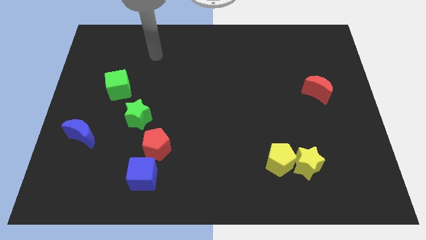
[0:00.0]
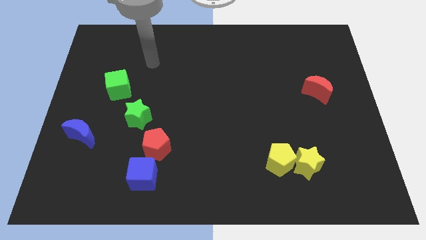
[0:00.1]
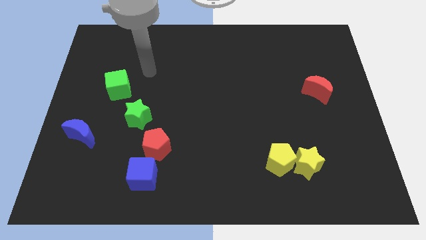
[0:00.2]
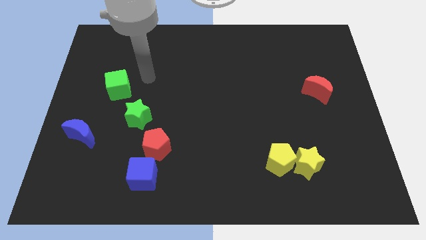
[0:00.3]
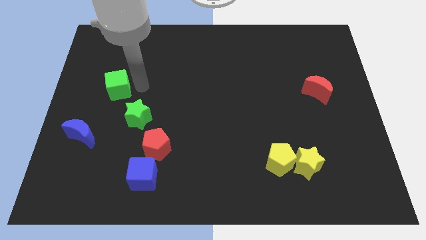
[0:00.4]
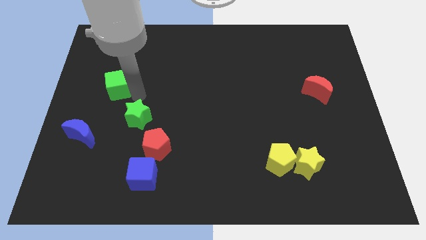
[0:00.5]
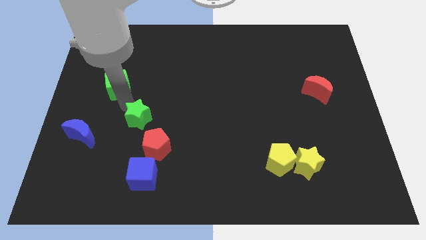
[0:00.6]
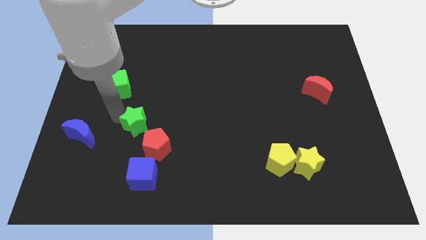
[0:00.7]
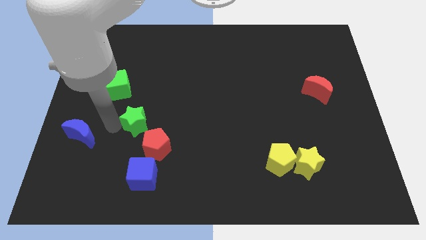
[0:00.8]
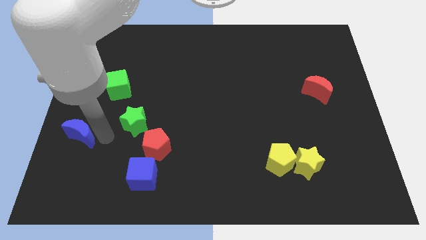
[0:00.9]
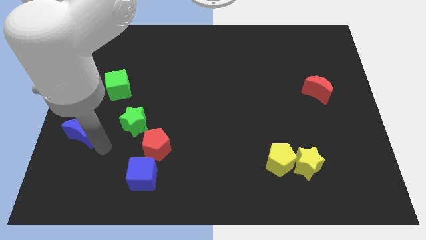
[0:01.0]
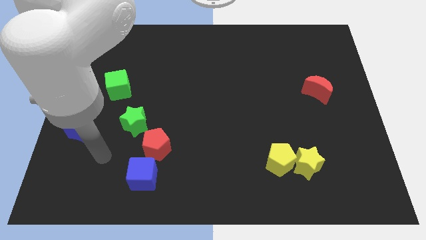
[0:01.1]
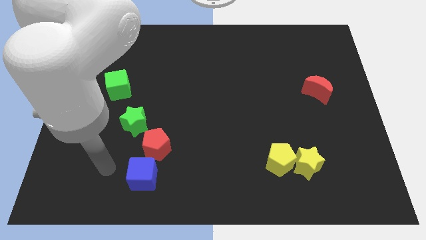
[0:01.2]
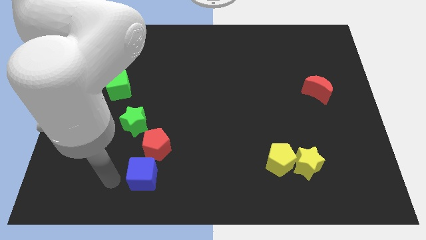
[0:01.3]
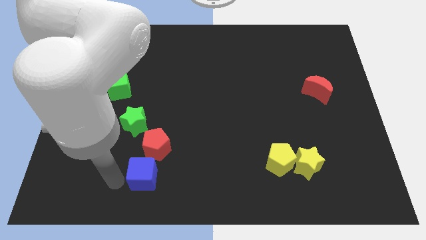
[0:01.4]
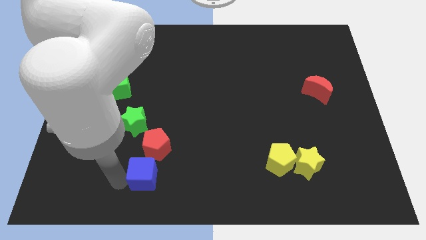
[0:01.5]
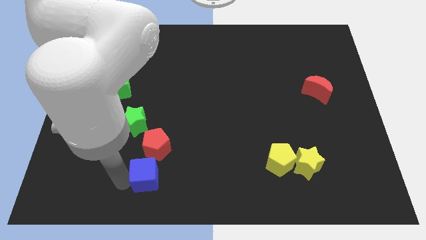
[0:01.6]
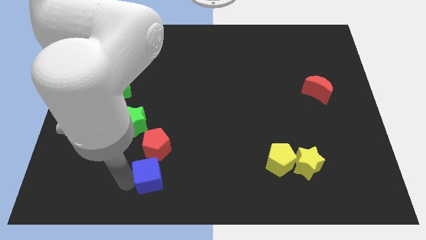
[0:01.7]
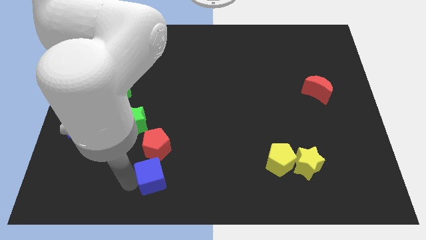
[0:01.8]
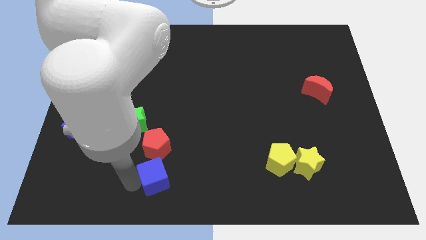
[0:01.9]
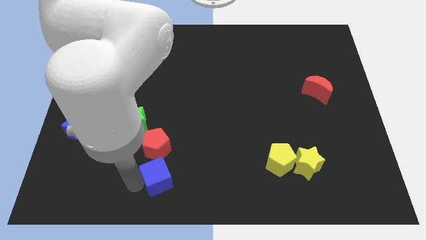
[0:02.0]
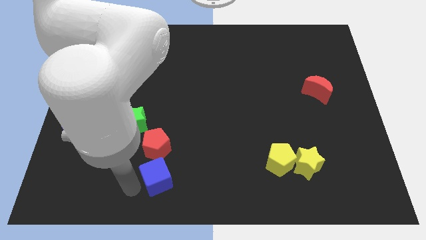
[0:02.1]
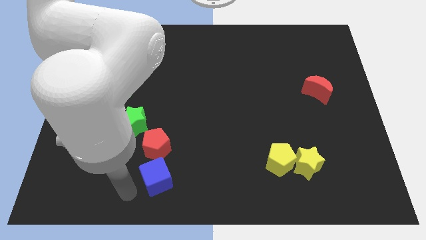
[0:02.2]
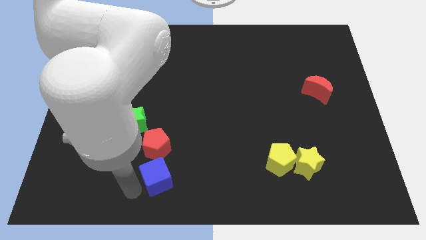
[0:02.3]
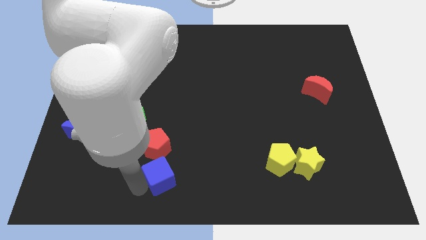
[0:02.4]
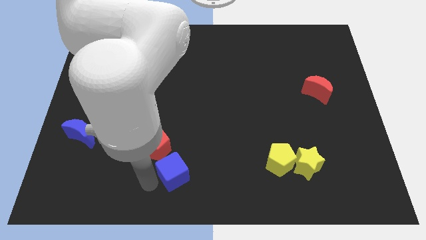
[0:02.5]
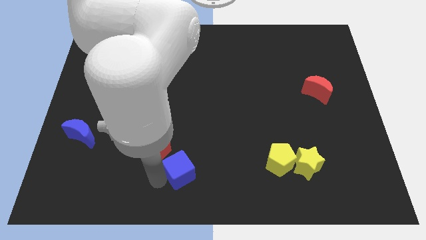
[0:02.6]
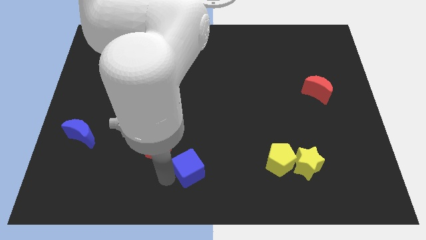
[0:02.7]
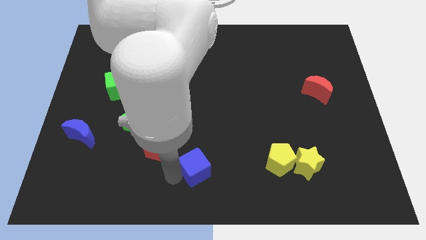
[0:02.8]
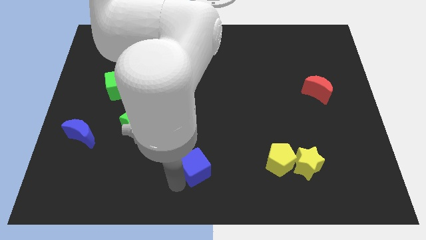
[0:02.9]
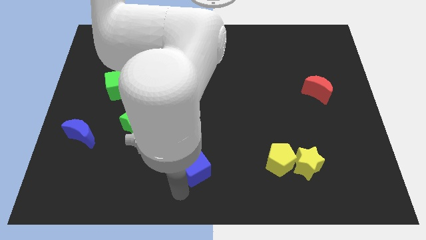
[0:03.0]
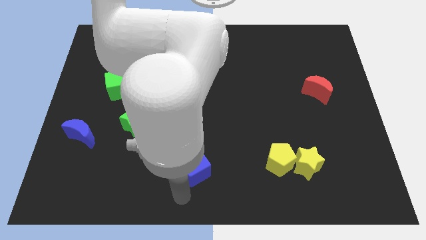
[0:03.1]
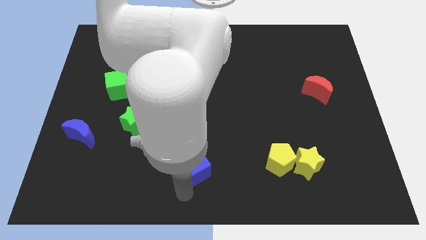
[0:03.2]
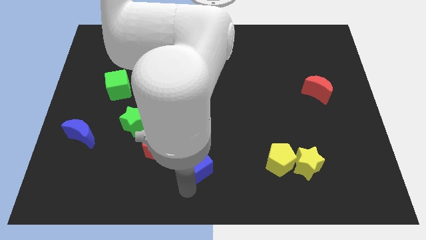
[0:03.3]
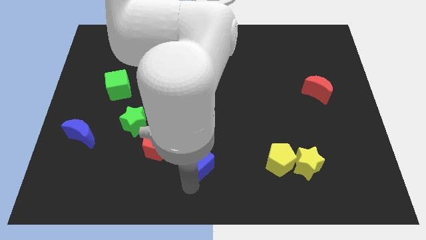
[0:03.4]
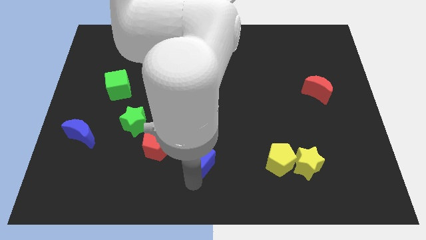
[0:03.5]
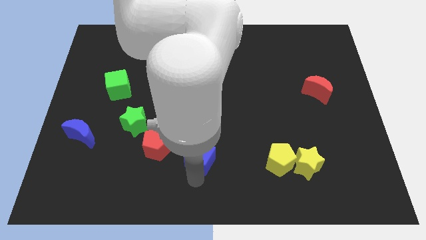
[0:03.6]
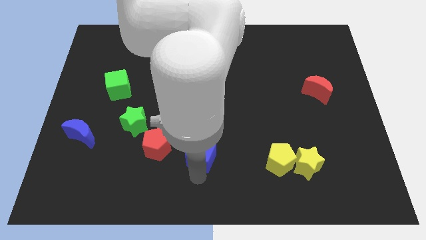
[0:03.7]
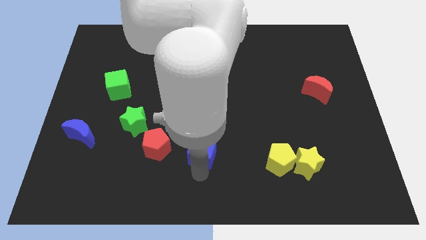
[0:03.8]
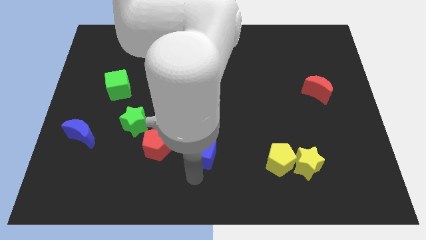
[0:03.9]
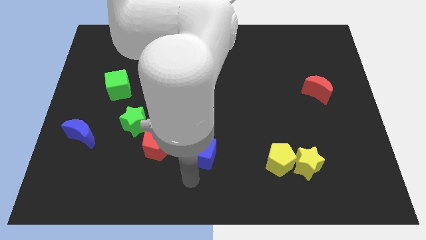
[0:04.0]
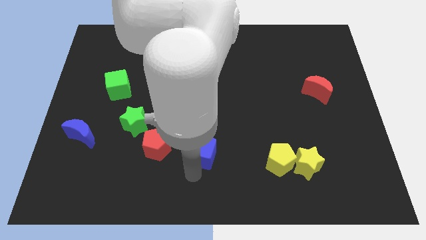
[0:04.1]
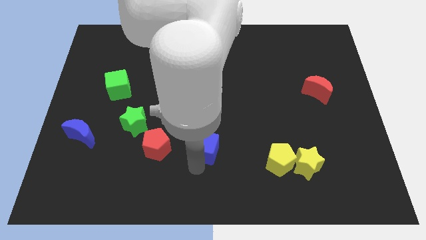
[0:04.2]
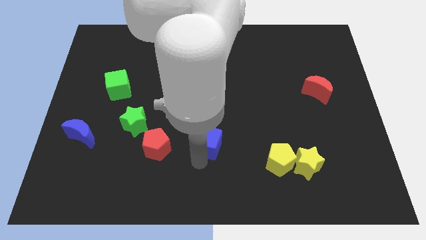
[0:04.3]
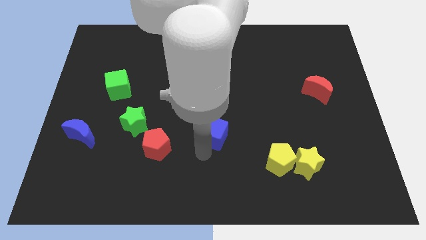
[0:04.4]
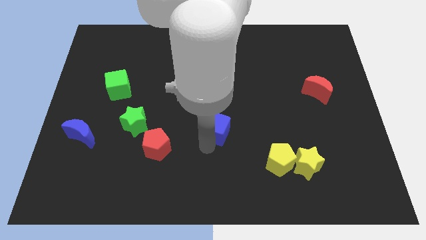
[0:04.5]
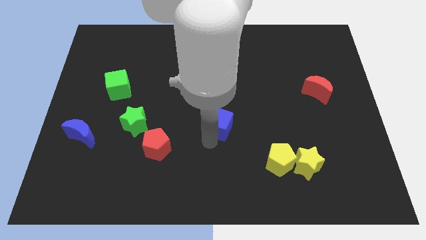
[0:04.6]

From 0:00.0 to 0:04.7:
push the blue cube upwards and to the right

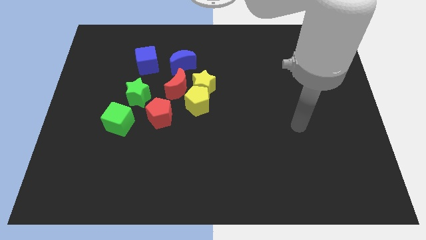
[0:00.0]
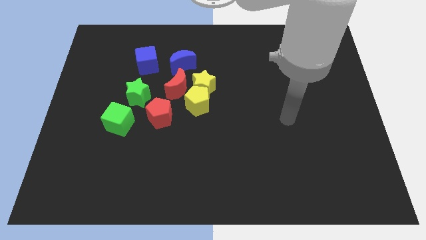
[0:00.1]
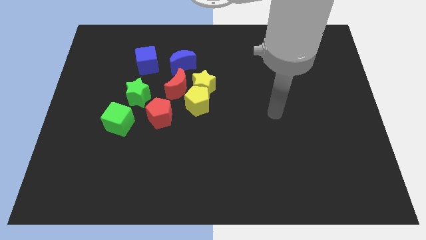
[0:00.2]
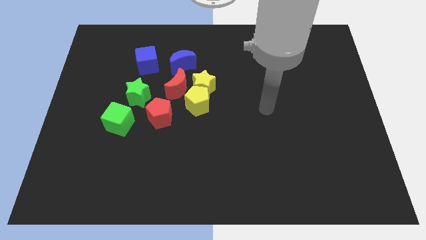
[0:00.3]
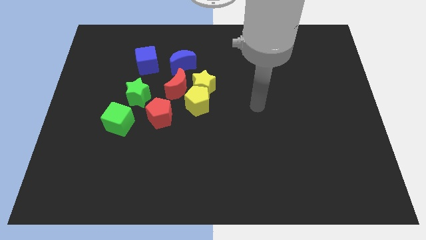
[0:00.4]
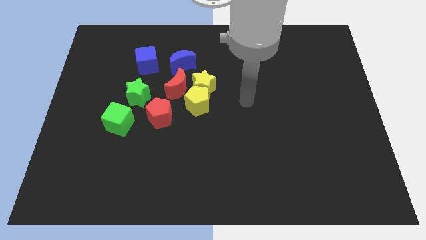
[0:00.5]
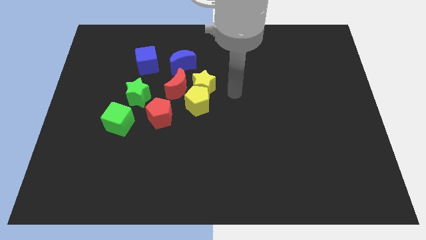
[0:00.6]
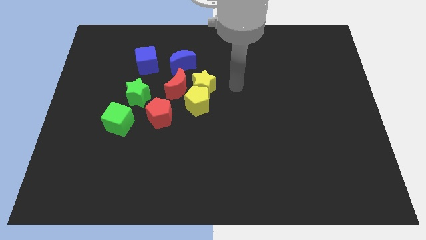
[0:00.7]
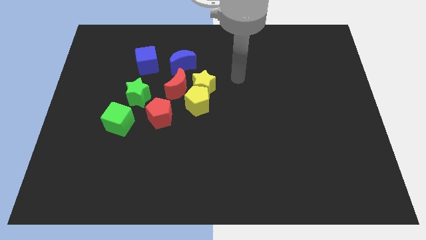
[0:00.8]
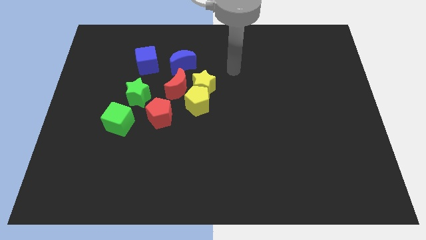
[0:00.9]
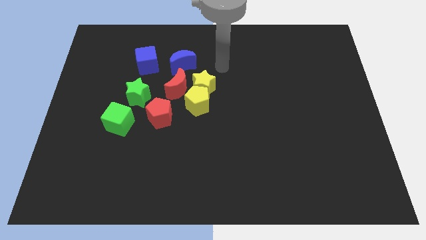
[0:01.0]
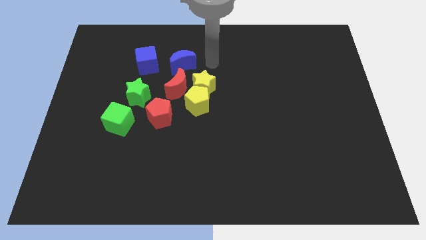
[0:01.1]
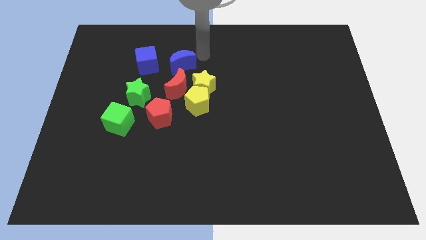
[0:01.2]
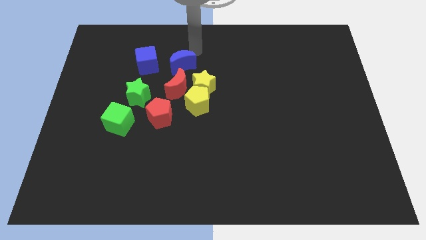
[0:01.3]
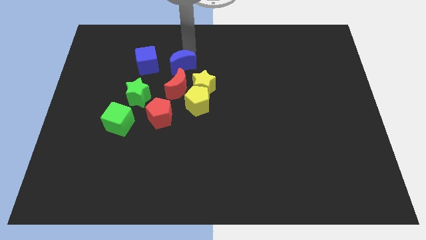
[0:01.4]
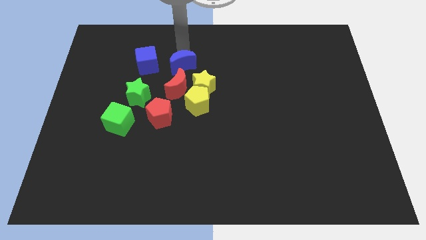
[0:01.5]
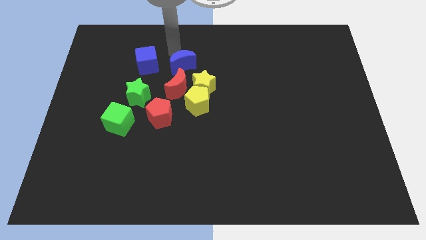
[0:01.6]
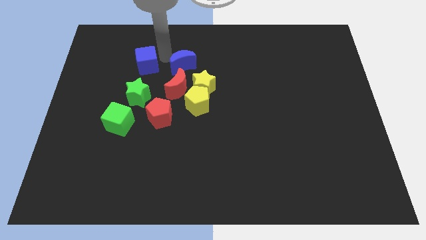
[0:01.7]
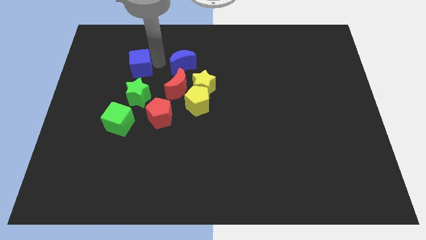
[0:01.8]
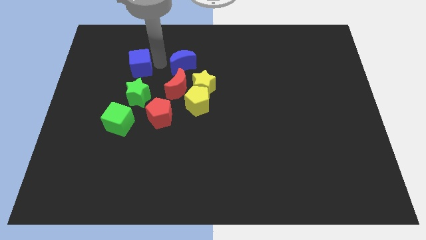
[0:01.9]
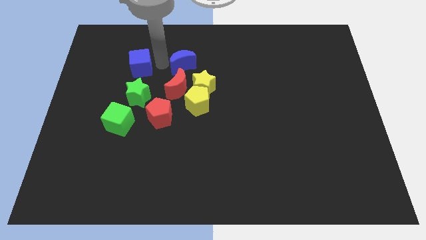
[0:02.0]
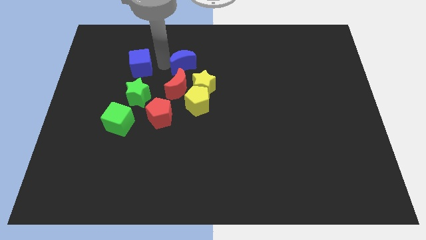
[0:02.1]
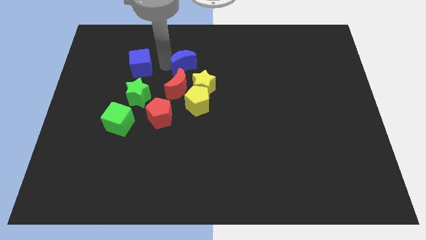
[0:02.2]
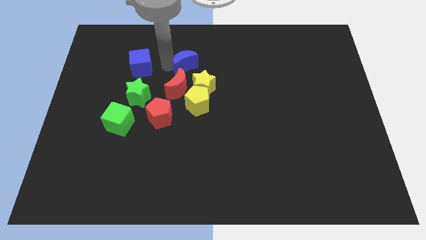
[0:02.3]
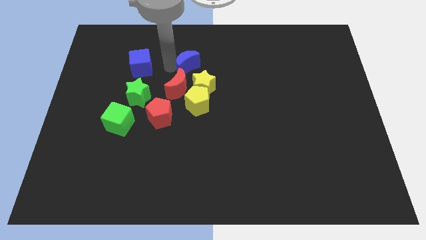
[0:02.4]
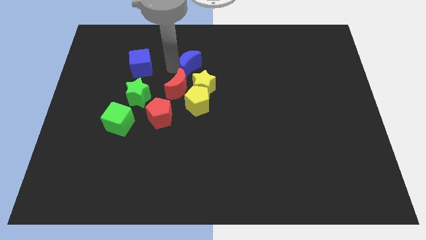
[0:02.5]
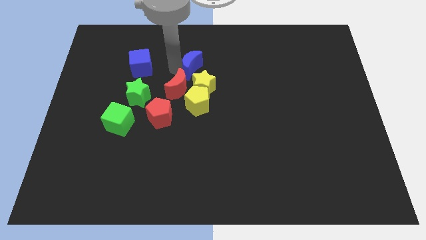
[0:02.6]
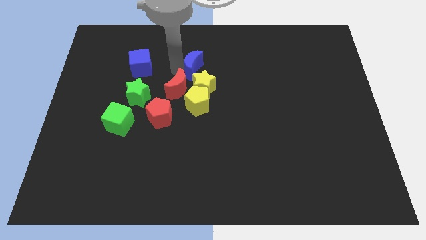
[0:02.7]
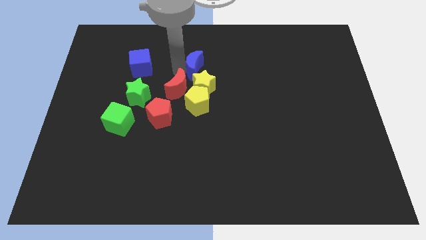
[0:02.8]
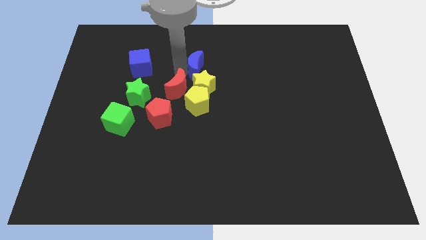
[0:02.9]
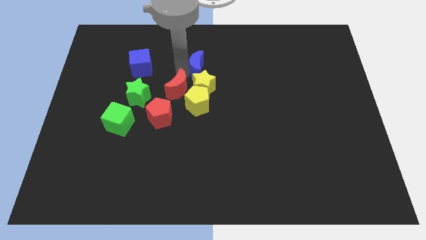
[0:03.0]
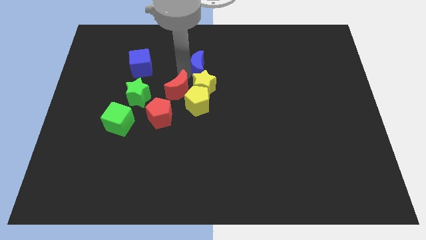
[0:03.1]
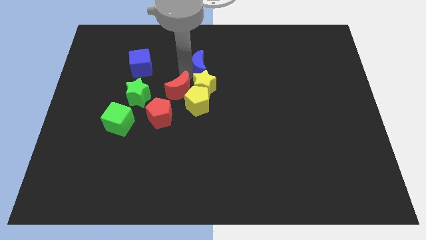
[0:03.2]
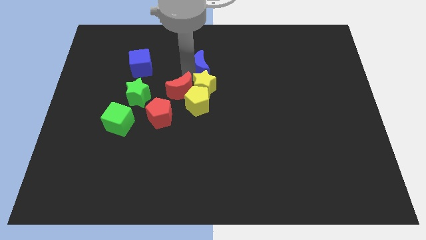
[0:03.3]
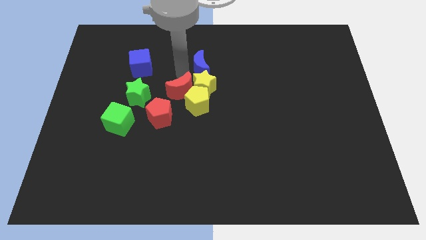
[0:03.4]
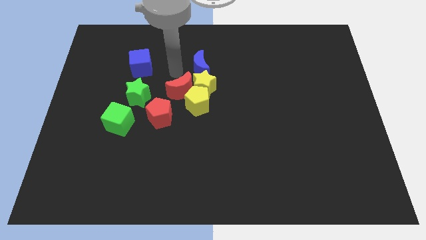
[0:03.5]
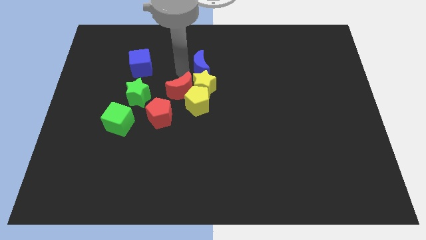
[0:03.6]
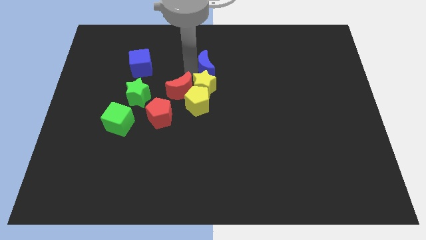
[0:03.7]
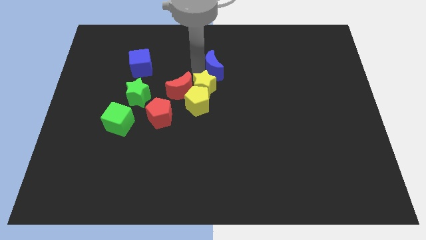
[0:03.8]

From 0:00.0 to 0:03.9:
push the blue moon to the right slightly
